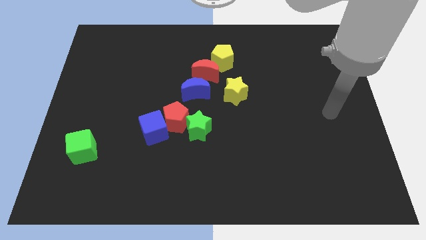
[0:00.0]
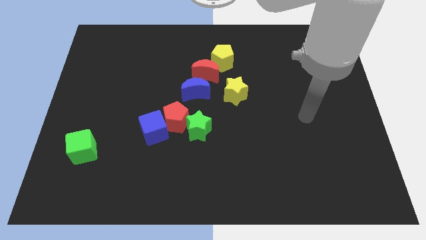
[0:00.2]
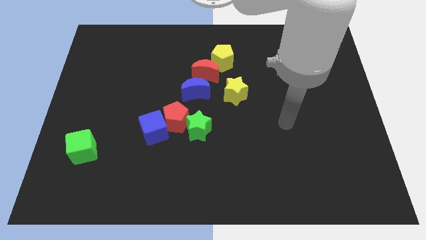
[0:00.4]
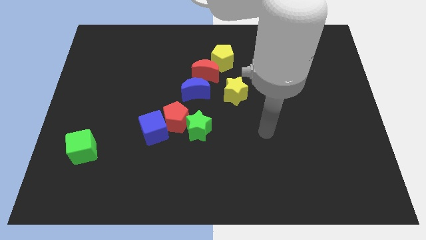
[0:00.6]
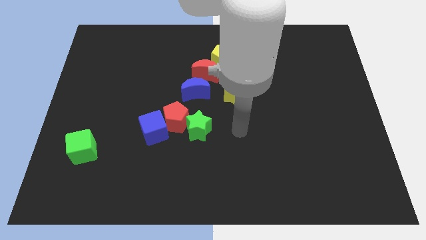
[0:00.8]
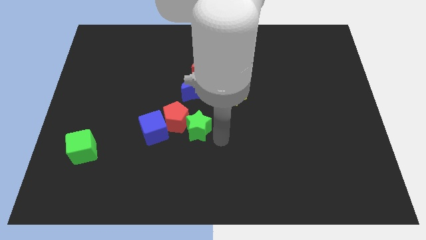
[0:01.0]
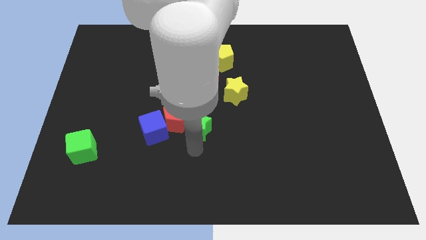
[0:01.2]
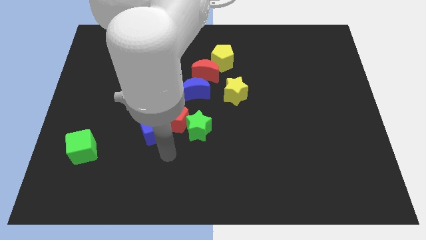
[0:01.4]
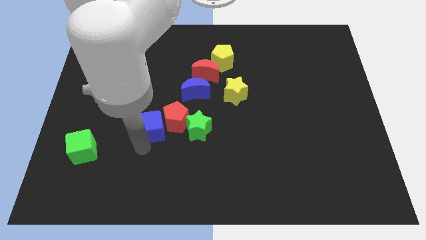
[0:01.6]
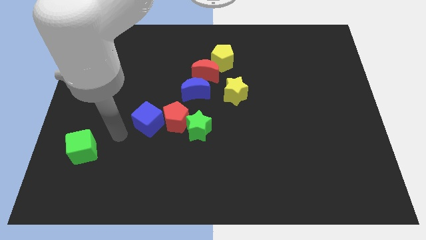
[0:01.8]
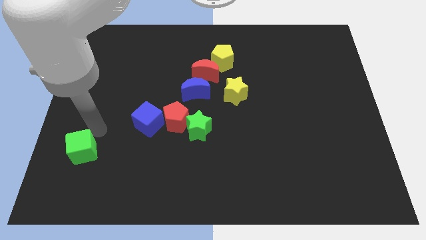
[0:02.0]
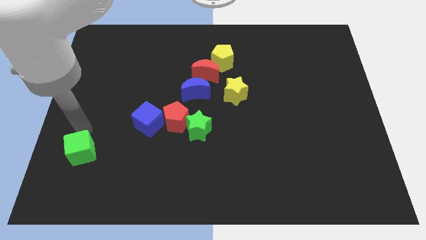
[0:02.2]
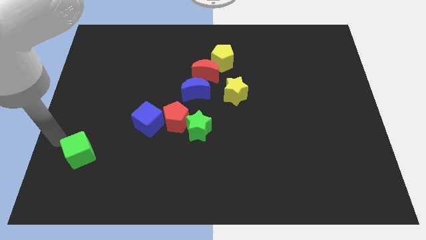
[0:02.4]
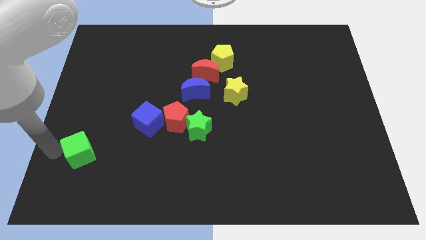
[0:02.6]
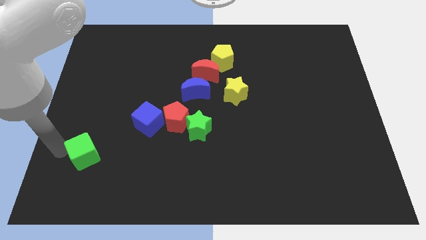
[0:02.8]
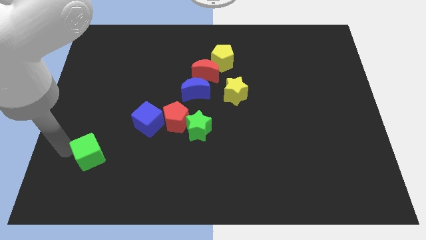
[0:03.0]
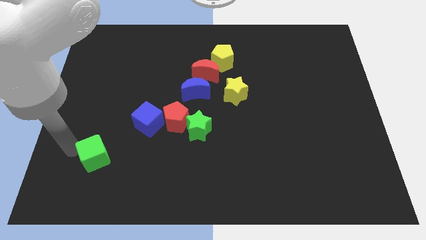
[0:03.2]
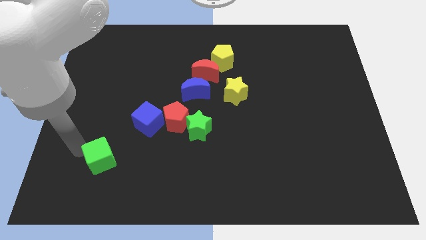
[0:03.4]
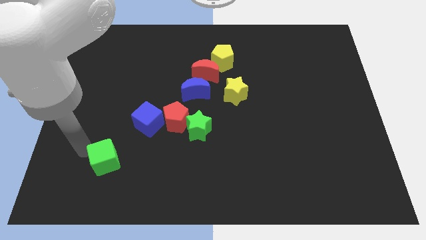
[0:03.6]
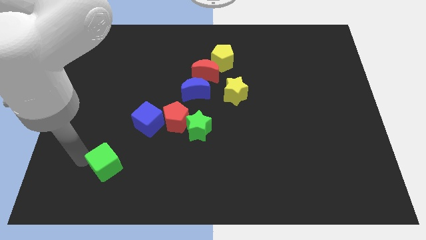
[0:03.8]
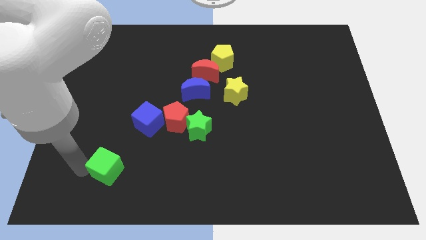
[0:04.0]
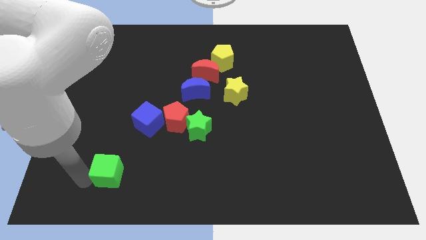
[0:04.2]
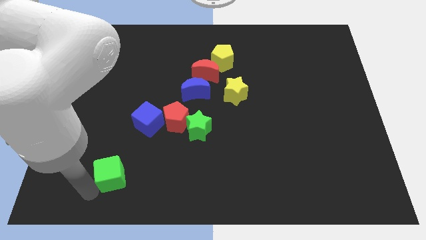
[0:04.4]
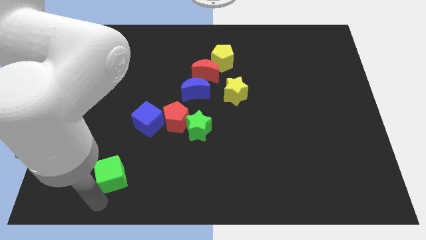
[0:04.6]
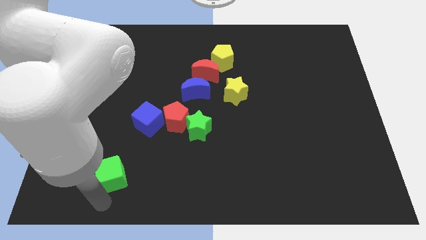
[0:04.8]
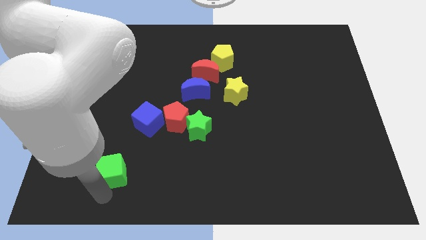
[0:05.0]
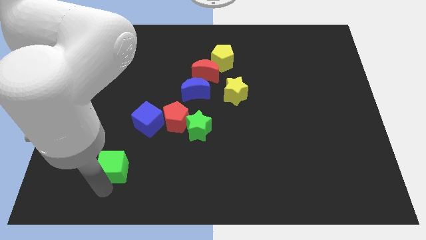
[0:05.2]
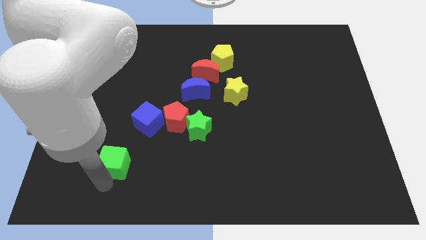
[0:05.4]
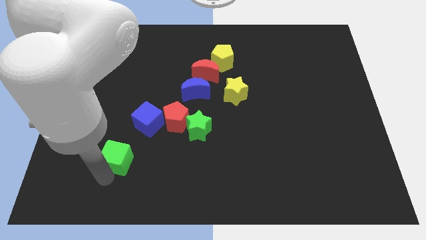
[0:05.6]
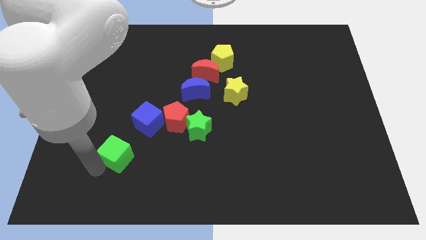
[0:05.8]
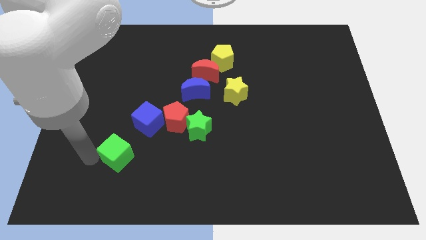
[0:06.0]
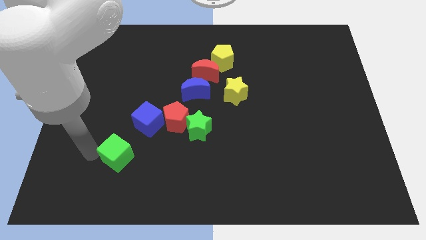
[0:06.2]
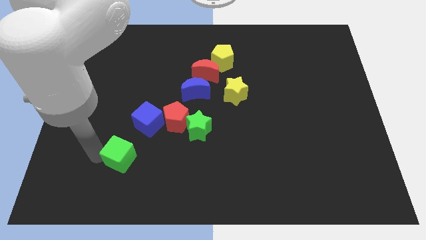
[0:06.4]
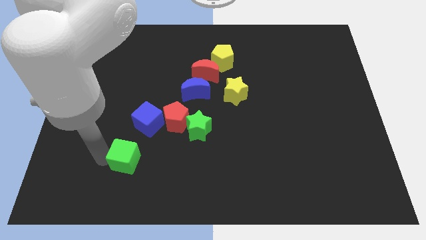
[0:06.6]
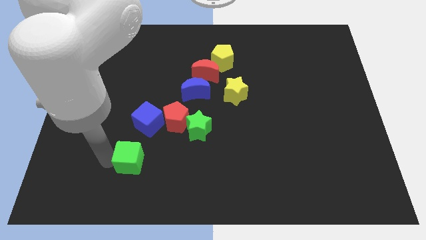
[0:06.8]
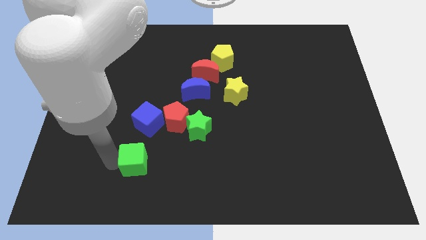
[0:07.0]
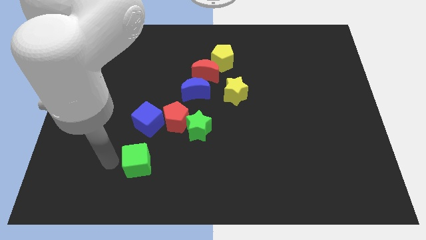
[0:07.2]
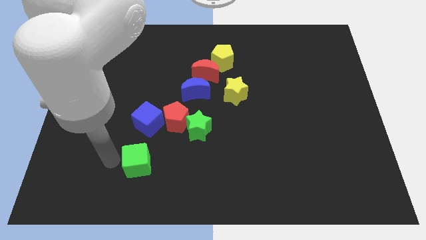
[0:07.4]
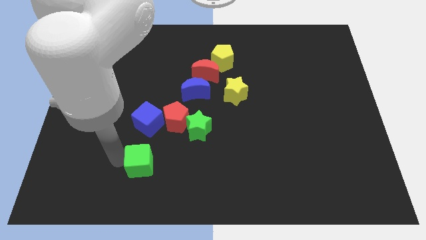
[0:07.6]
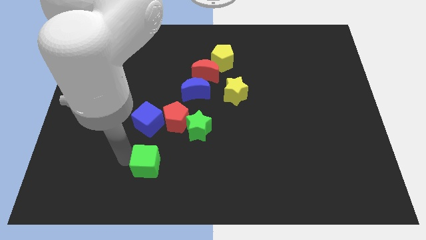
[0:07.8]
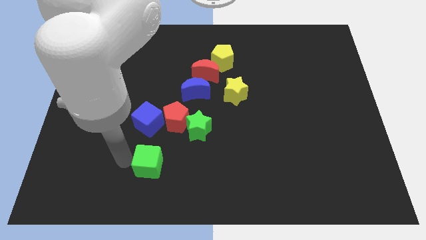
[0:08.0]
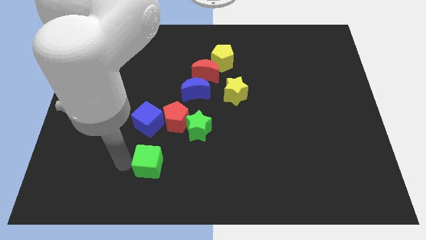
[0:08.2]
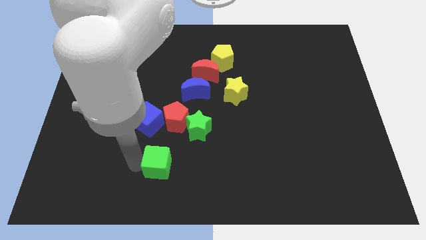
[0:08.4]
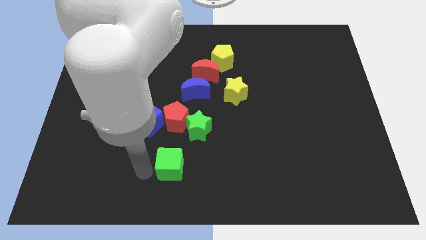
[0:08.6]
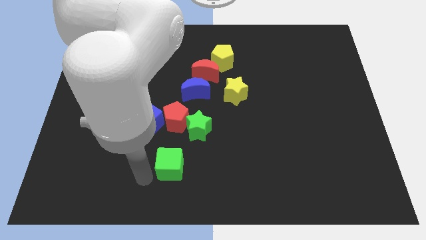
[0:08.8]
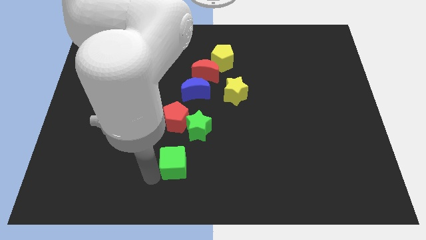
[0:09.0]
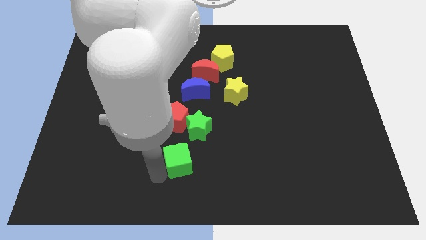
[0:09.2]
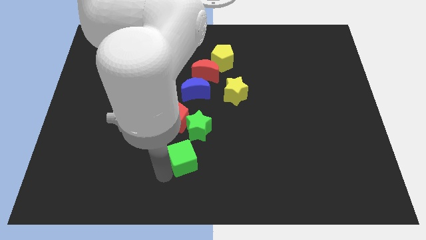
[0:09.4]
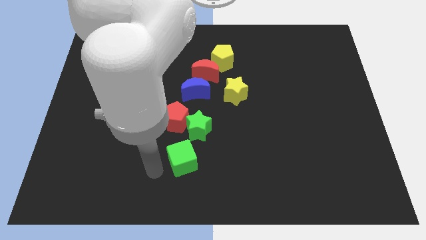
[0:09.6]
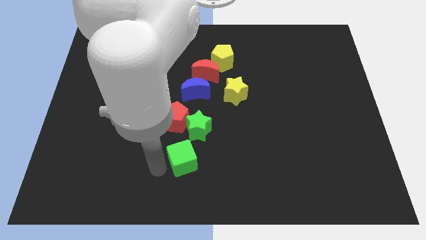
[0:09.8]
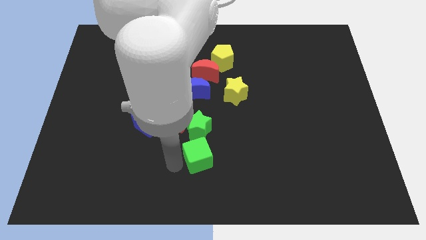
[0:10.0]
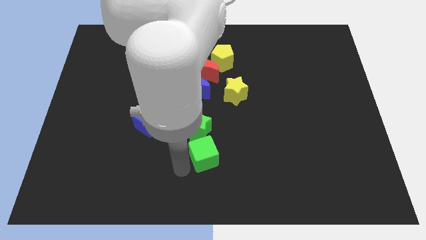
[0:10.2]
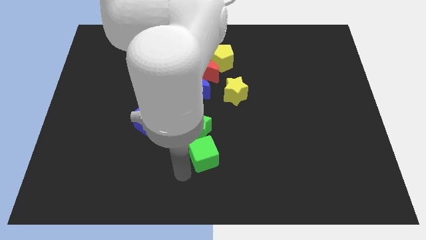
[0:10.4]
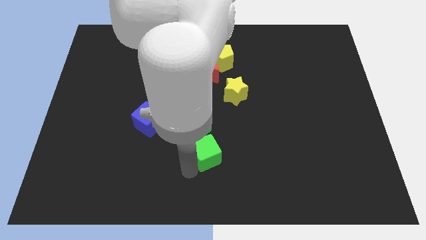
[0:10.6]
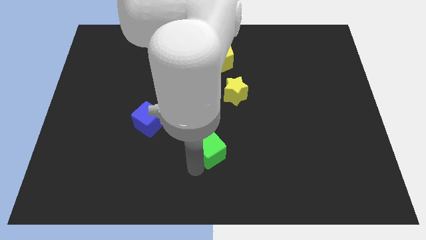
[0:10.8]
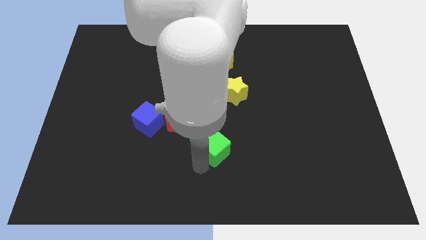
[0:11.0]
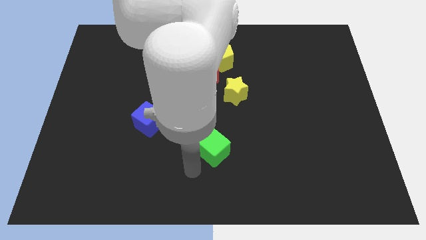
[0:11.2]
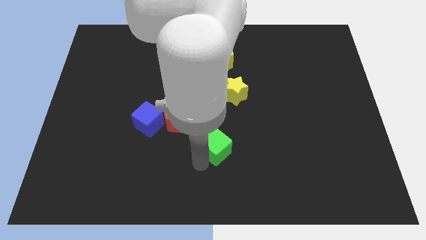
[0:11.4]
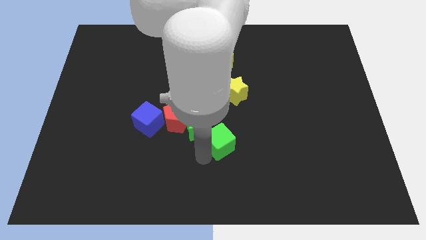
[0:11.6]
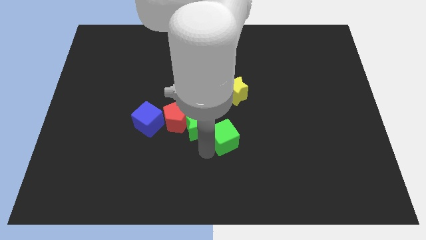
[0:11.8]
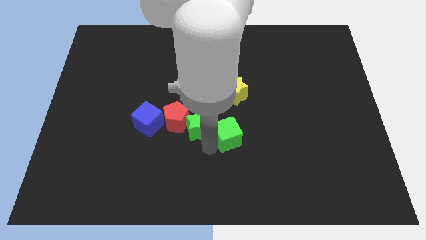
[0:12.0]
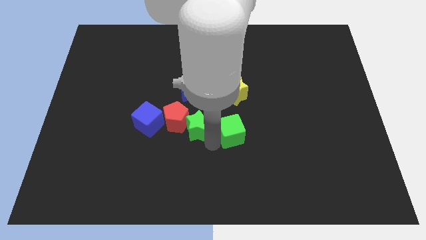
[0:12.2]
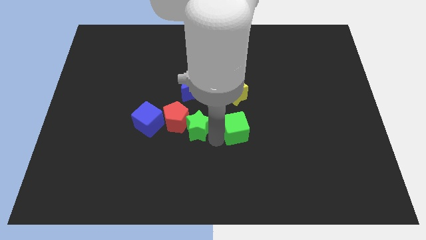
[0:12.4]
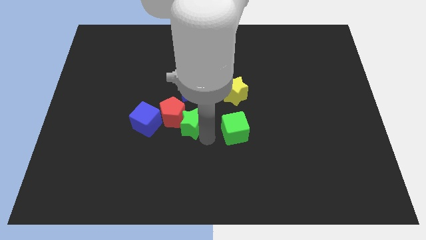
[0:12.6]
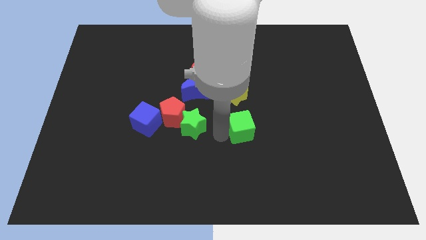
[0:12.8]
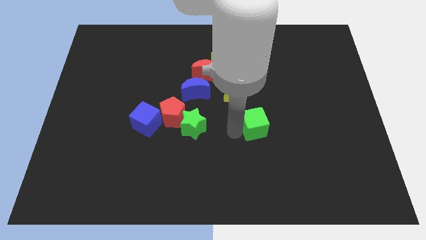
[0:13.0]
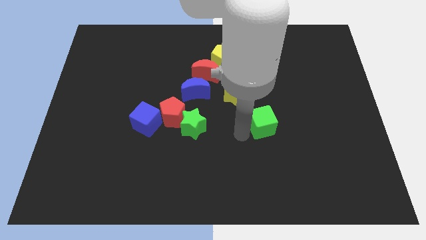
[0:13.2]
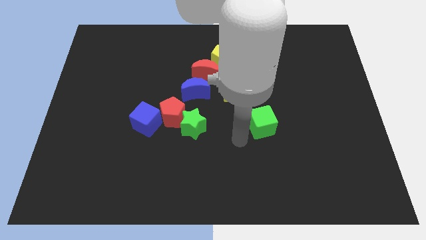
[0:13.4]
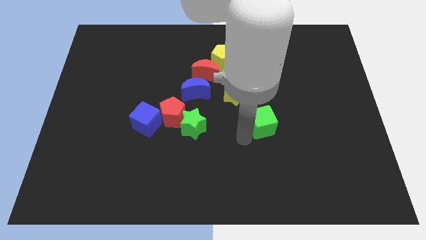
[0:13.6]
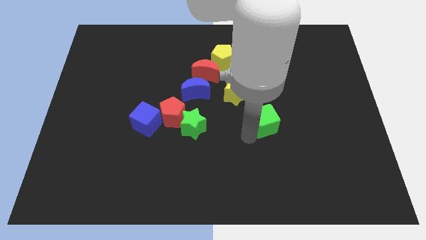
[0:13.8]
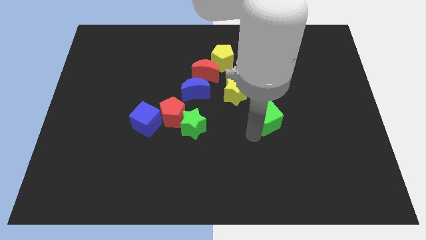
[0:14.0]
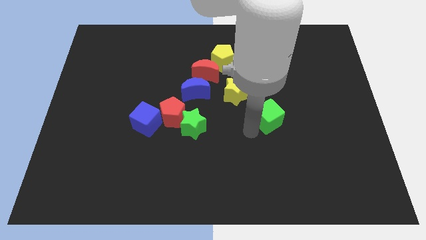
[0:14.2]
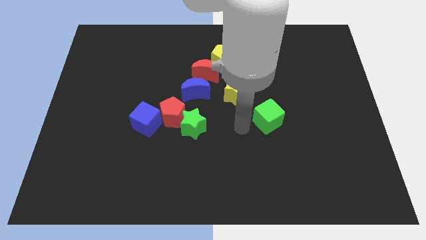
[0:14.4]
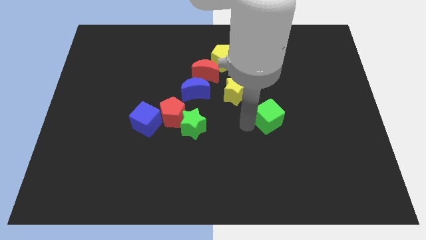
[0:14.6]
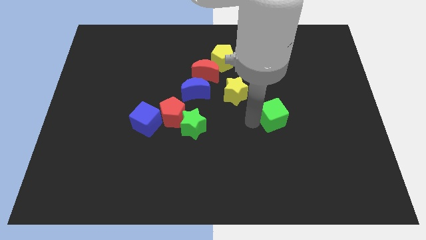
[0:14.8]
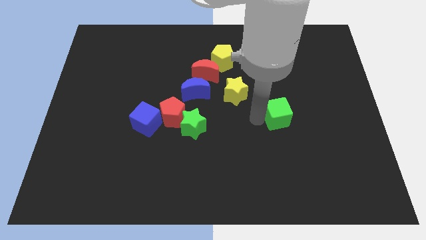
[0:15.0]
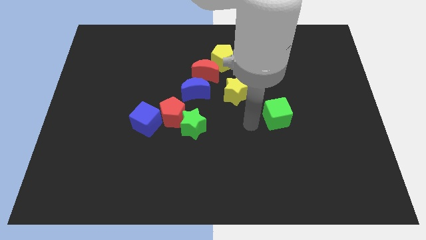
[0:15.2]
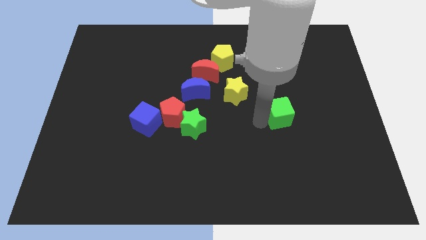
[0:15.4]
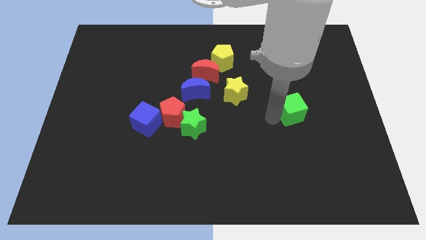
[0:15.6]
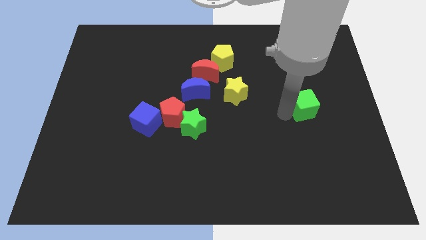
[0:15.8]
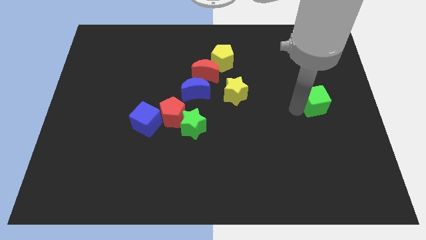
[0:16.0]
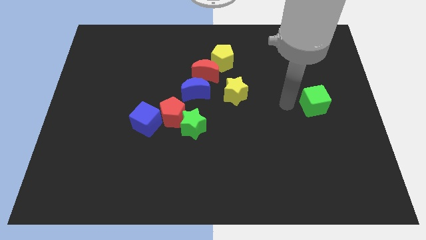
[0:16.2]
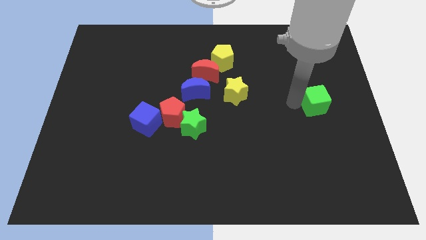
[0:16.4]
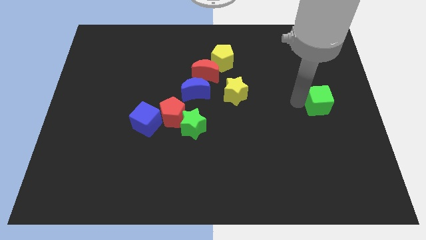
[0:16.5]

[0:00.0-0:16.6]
push the green cube to the right side of the board
